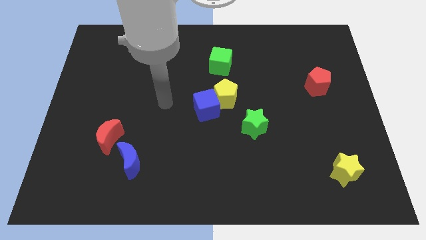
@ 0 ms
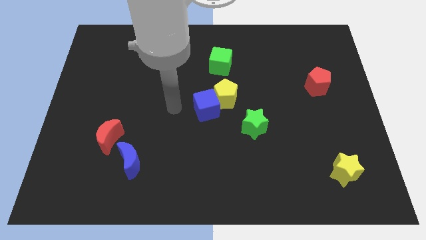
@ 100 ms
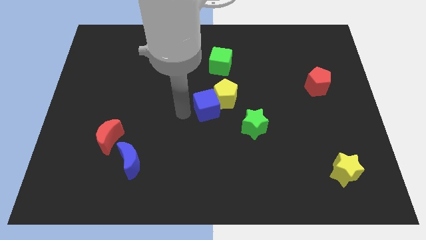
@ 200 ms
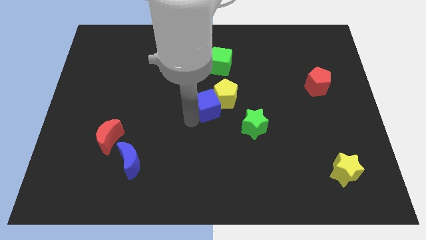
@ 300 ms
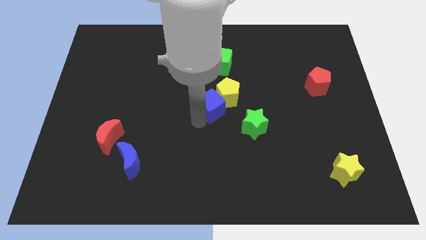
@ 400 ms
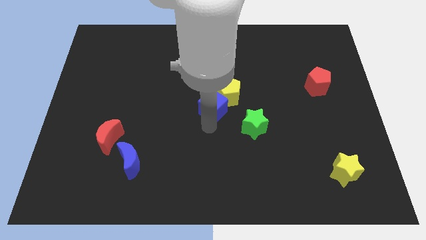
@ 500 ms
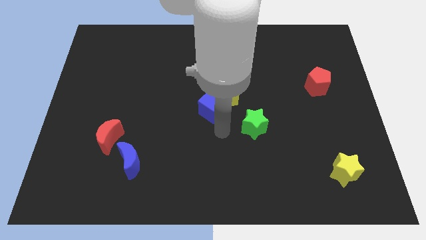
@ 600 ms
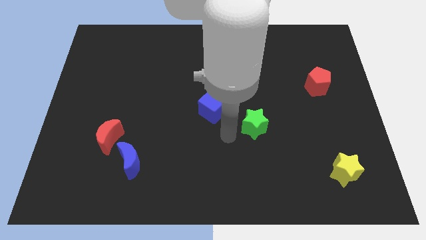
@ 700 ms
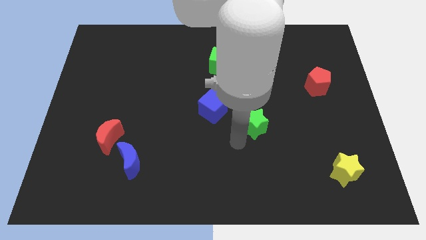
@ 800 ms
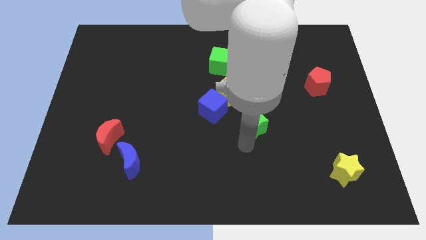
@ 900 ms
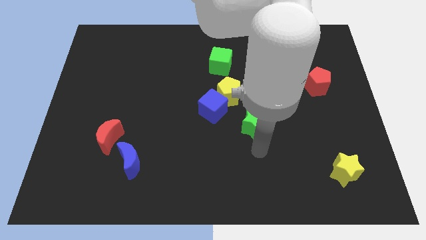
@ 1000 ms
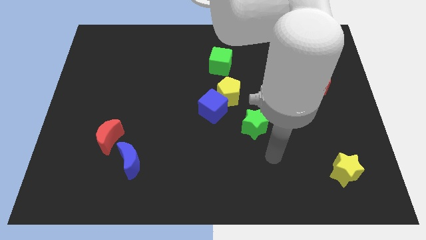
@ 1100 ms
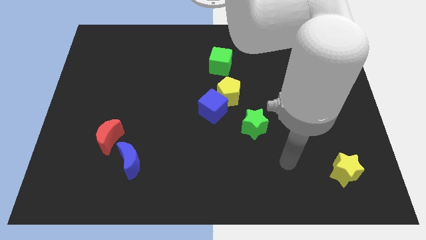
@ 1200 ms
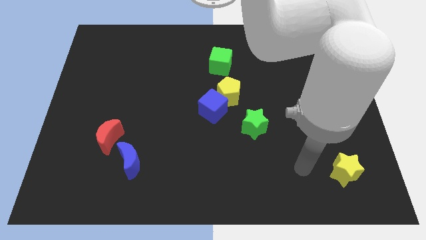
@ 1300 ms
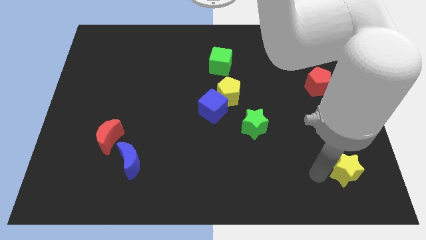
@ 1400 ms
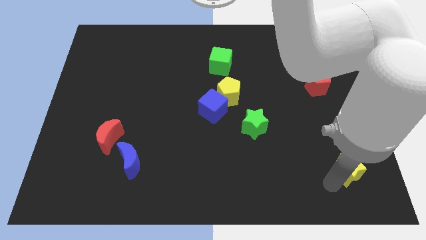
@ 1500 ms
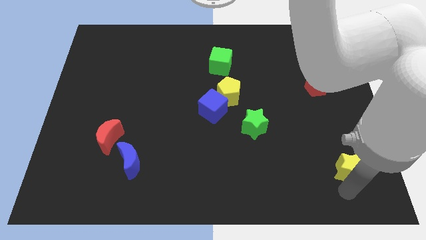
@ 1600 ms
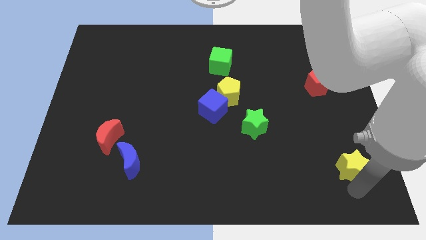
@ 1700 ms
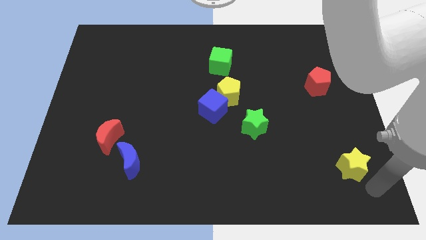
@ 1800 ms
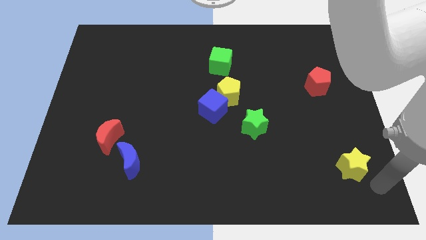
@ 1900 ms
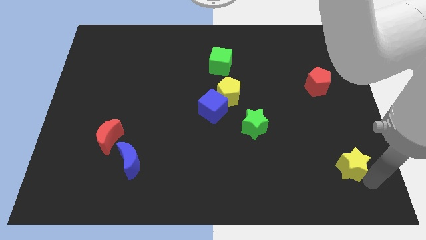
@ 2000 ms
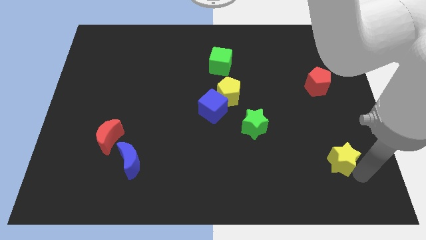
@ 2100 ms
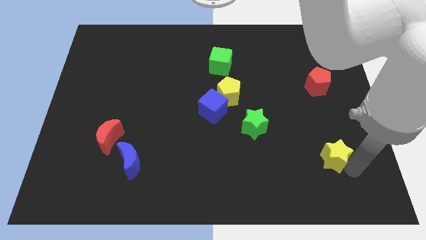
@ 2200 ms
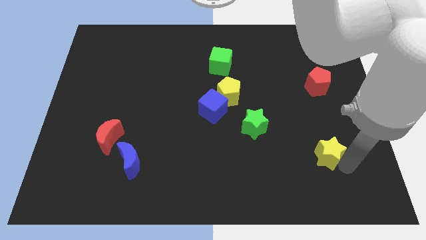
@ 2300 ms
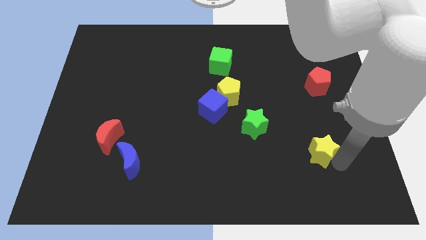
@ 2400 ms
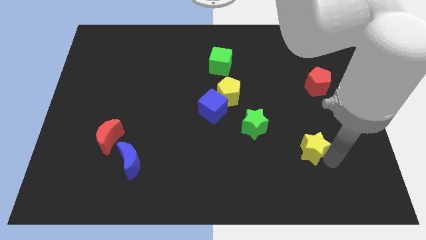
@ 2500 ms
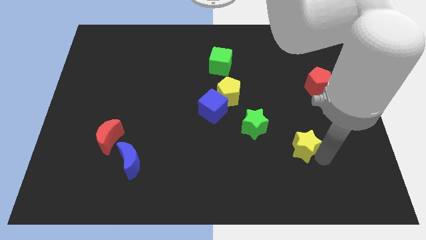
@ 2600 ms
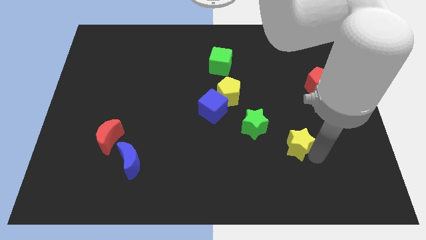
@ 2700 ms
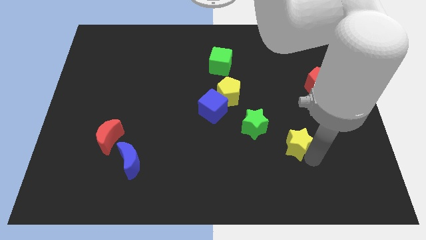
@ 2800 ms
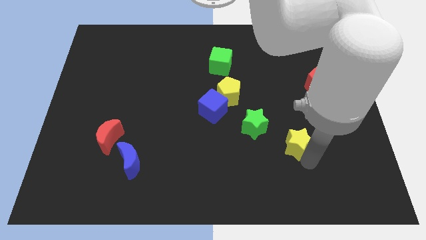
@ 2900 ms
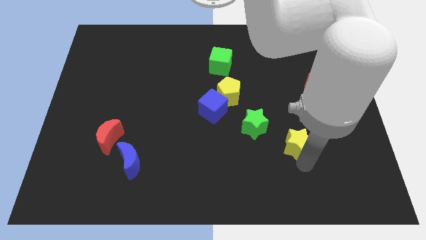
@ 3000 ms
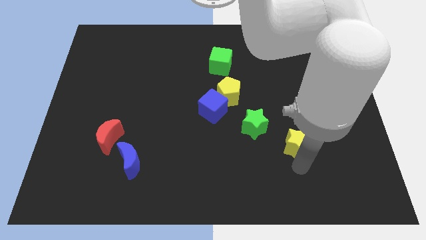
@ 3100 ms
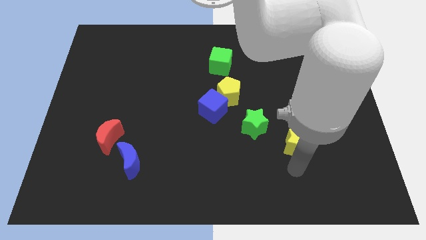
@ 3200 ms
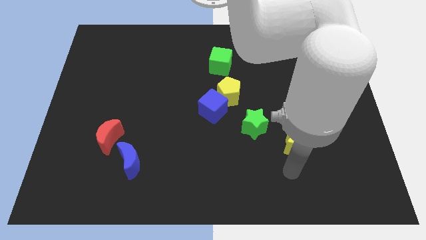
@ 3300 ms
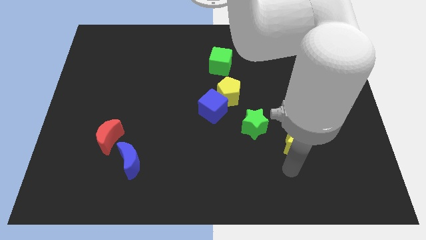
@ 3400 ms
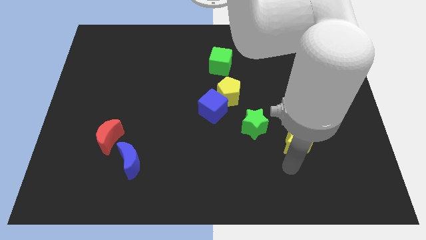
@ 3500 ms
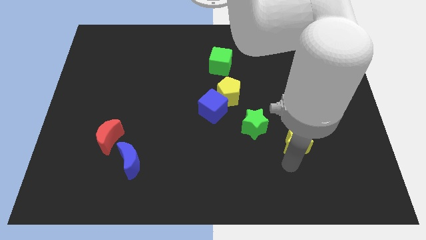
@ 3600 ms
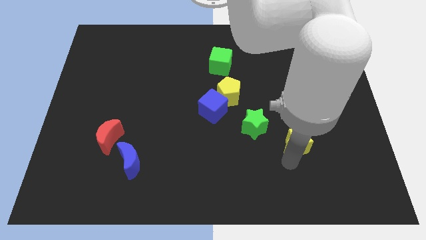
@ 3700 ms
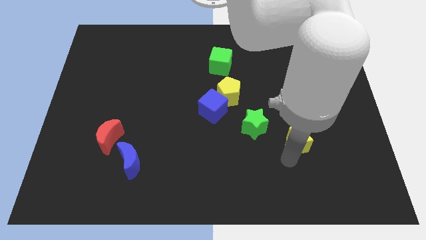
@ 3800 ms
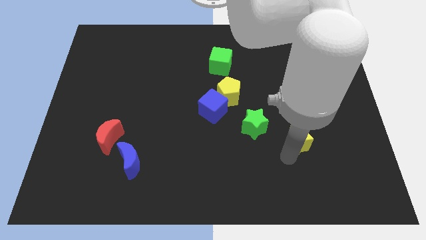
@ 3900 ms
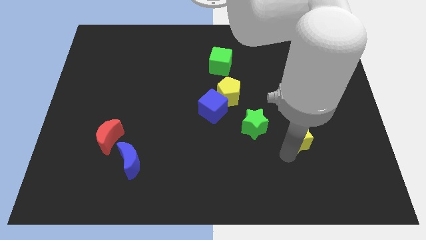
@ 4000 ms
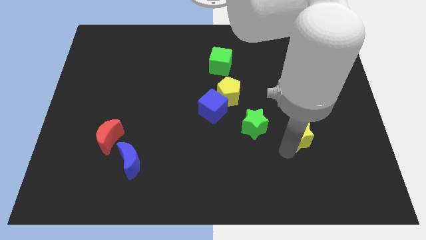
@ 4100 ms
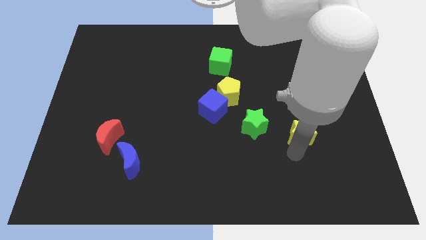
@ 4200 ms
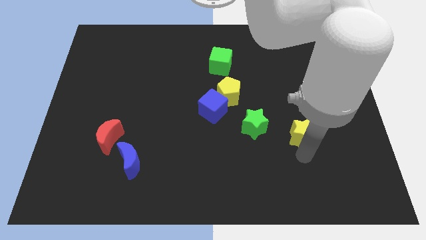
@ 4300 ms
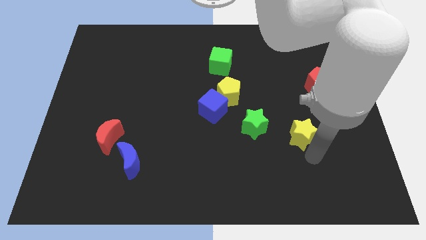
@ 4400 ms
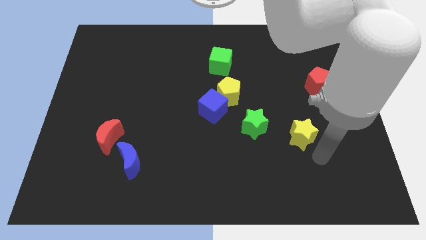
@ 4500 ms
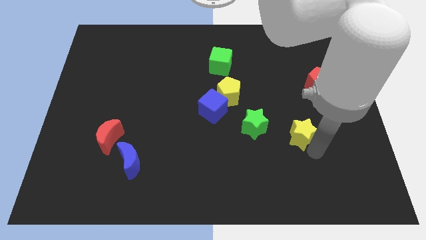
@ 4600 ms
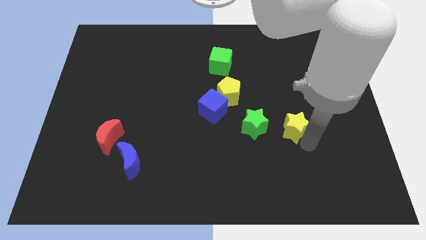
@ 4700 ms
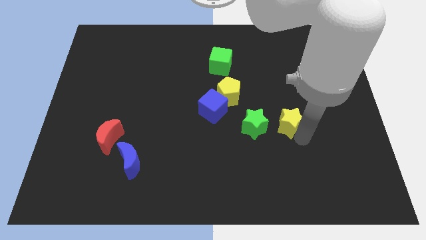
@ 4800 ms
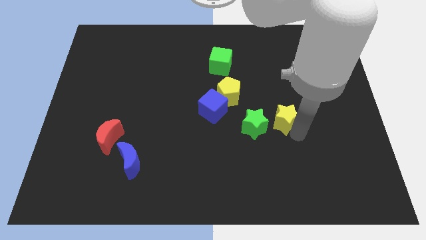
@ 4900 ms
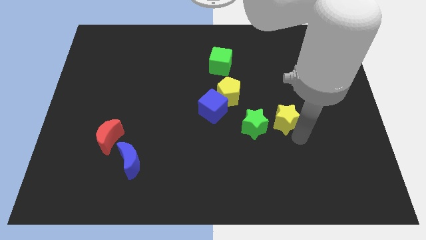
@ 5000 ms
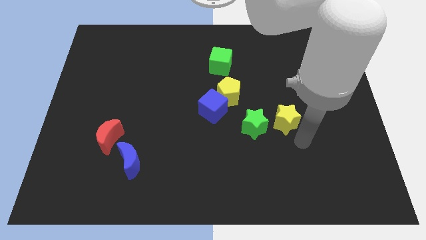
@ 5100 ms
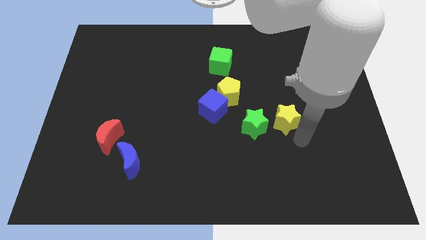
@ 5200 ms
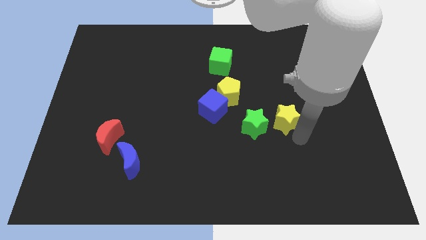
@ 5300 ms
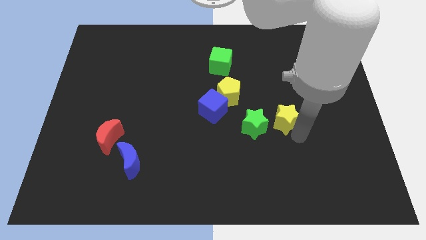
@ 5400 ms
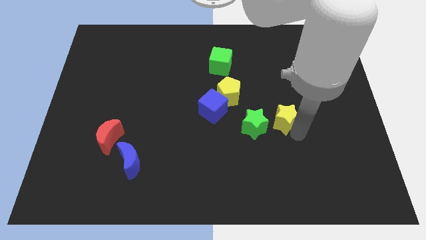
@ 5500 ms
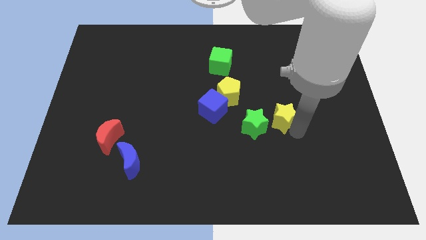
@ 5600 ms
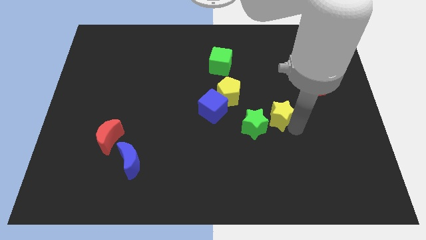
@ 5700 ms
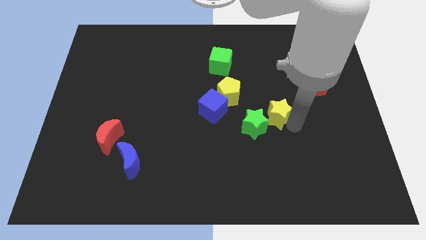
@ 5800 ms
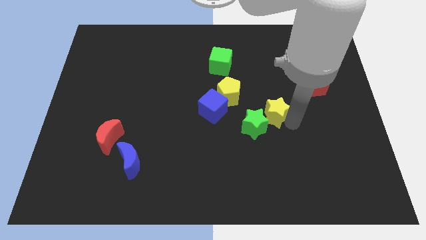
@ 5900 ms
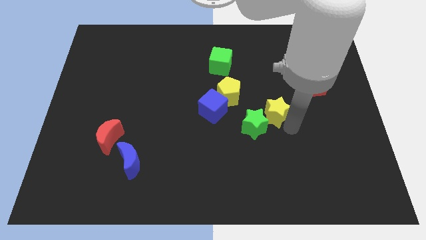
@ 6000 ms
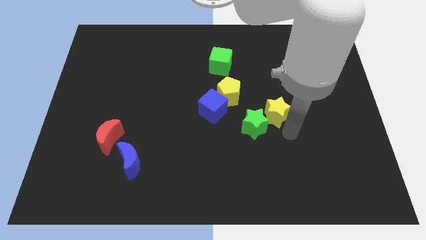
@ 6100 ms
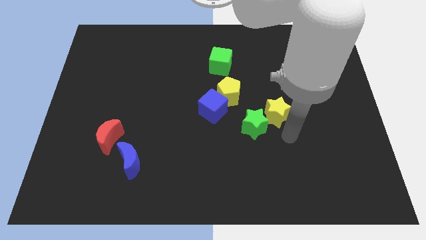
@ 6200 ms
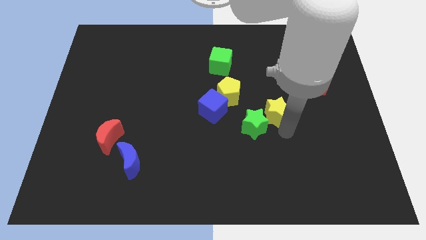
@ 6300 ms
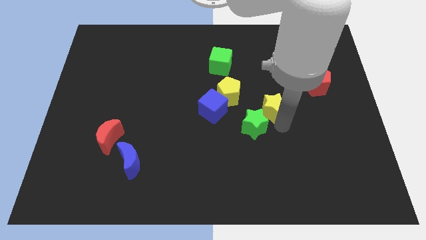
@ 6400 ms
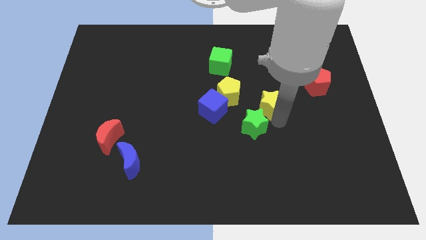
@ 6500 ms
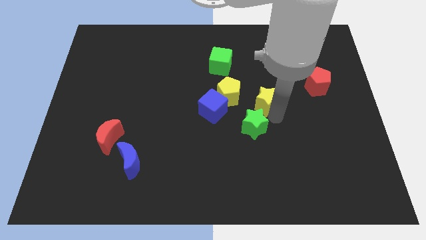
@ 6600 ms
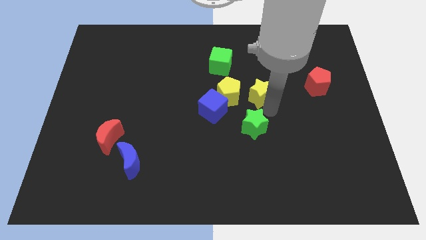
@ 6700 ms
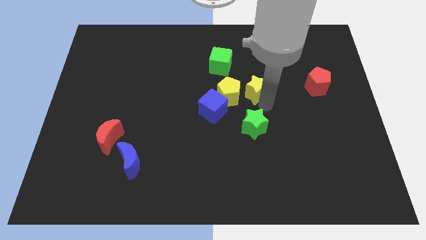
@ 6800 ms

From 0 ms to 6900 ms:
push the yellow star to the top right of the yellow pentagon
